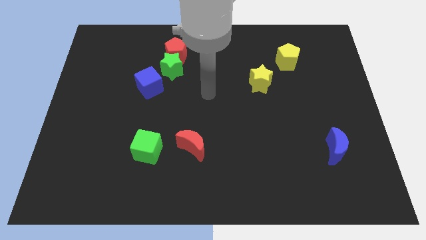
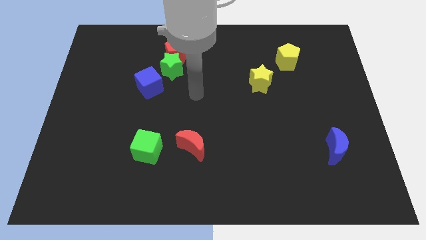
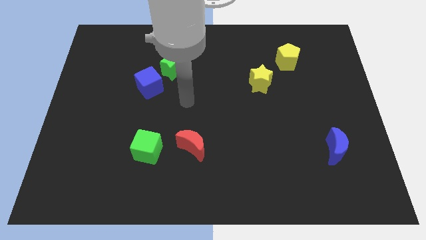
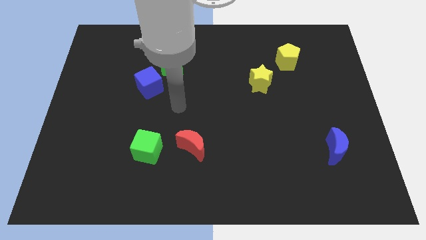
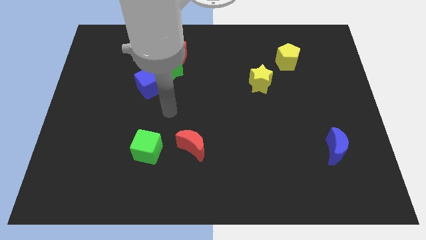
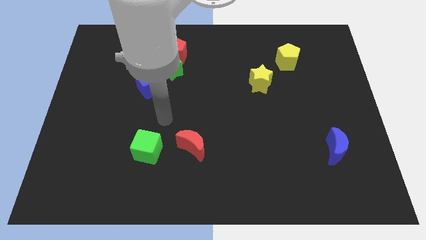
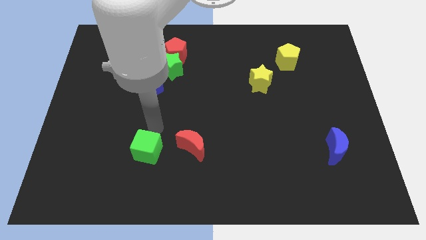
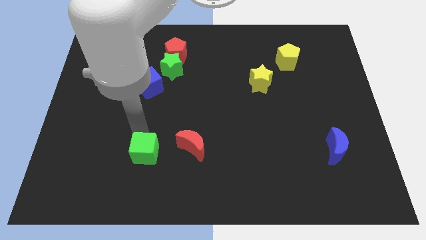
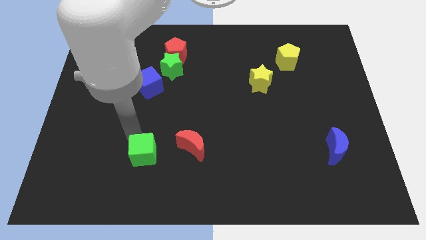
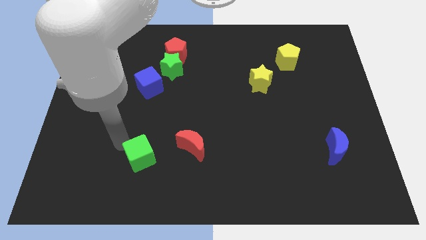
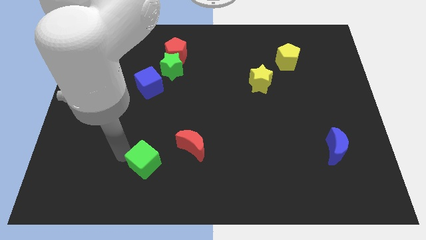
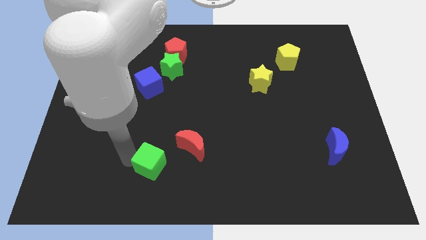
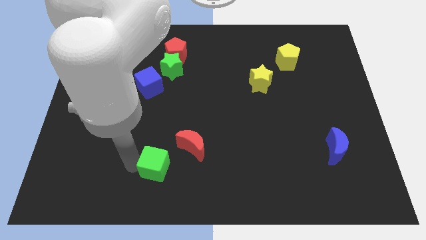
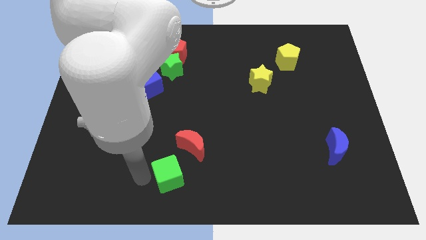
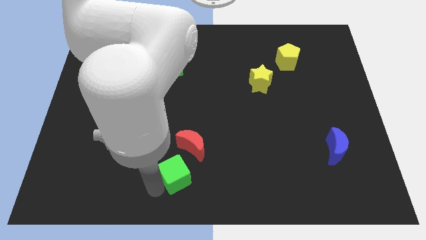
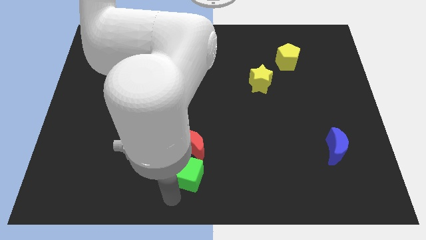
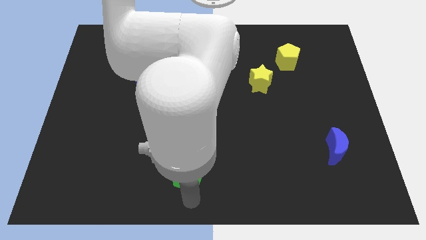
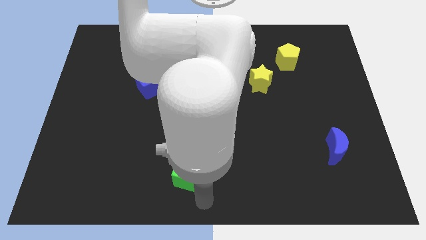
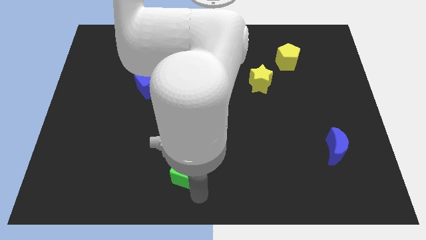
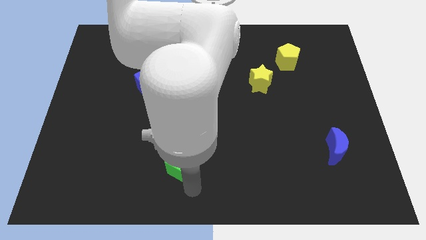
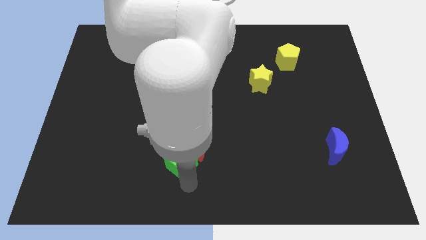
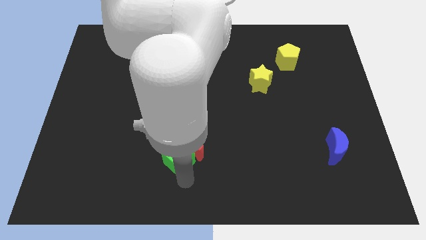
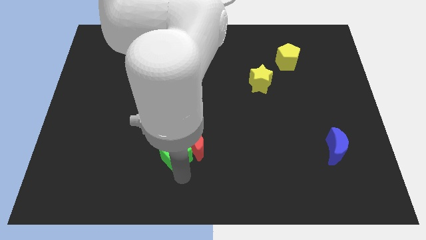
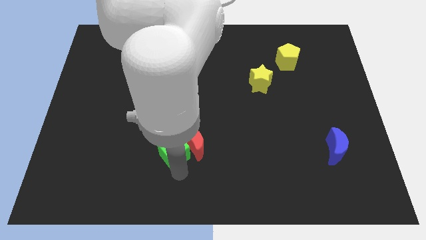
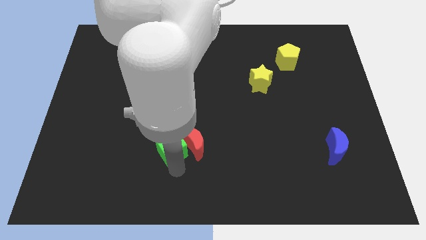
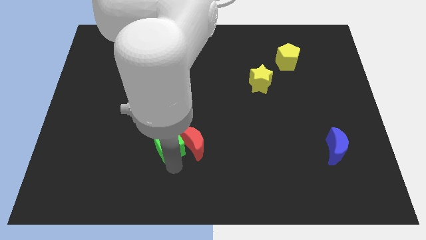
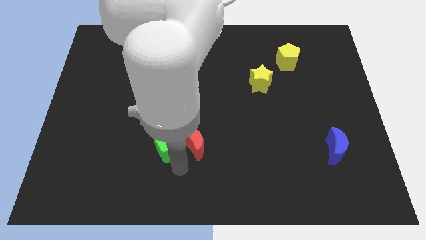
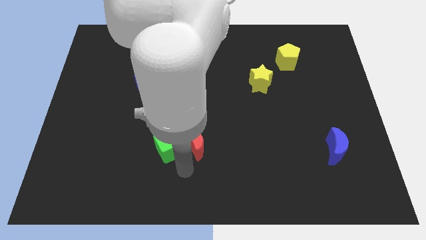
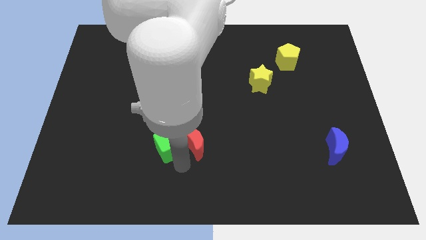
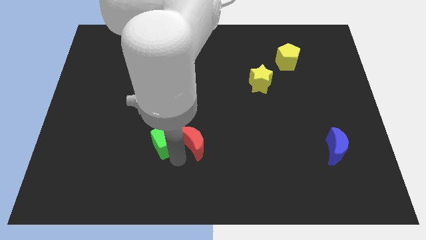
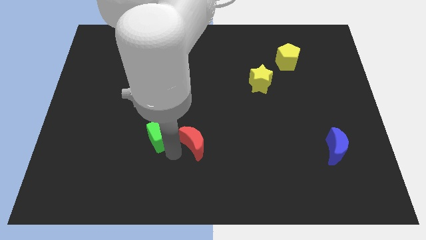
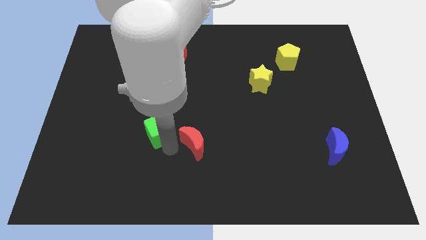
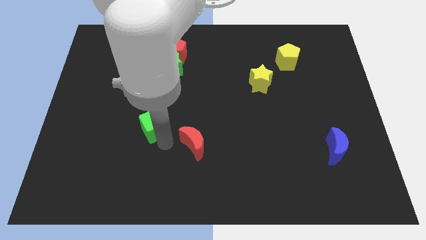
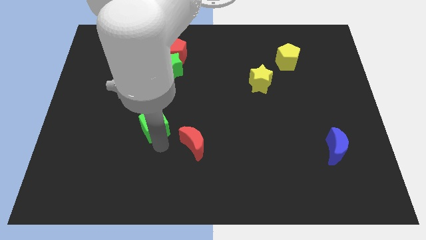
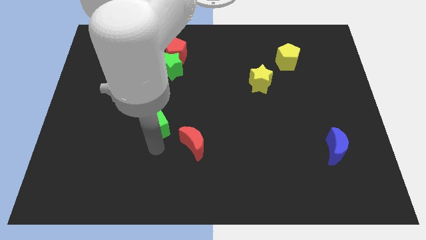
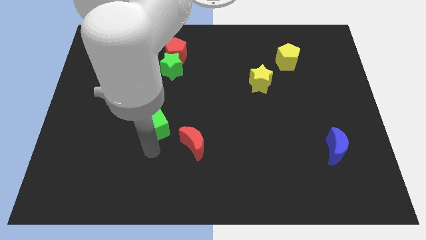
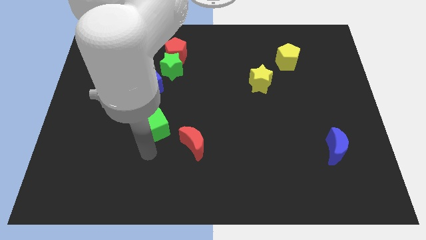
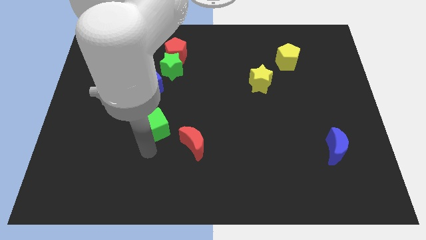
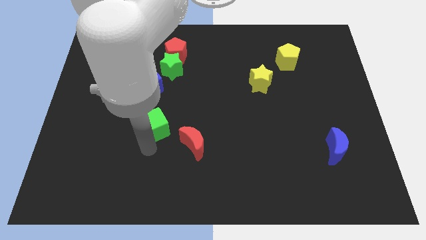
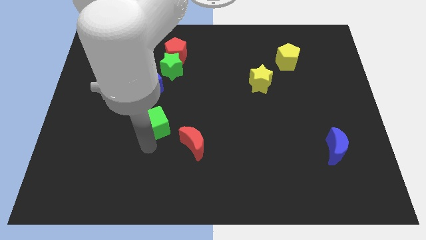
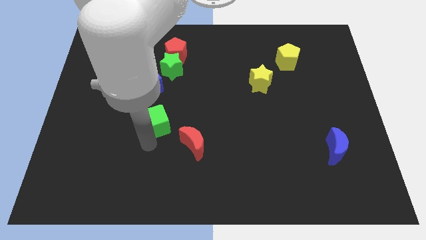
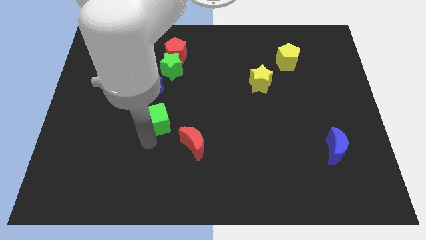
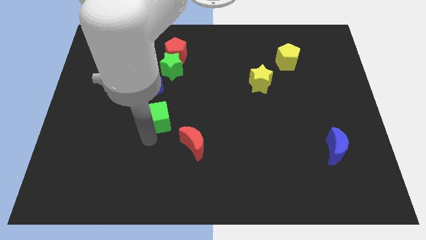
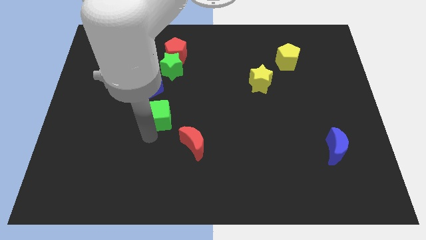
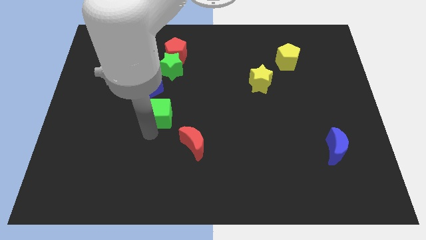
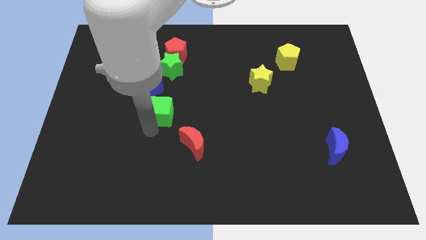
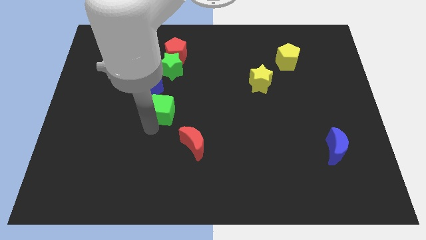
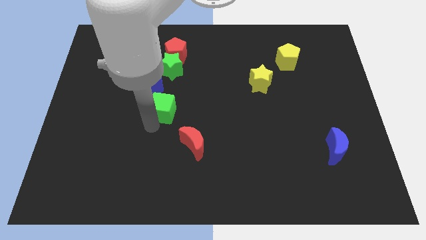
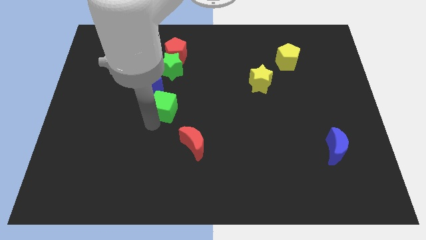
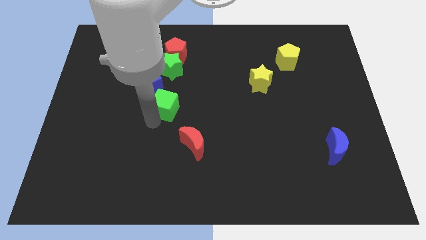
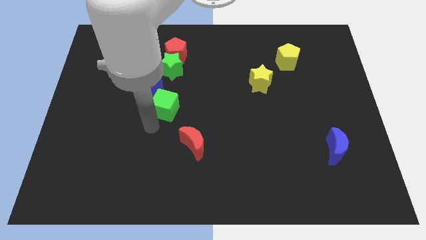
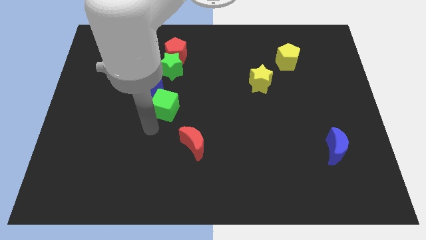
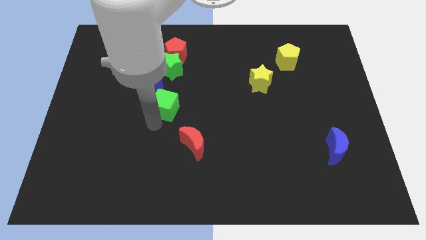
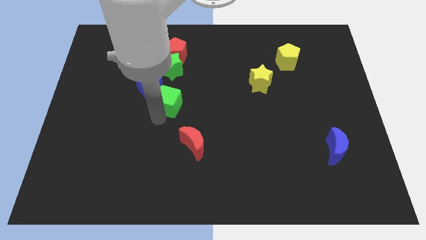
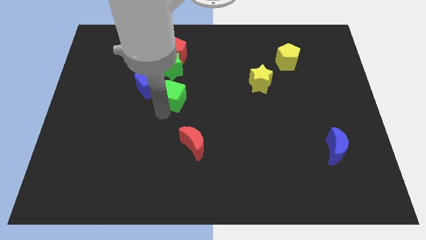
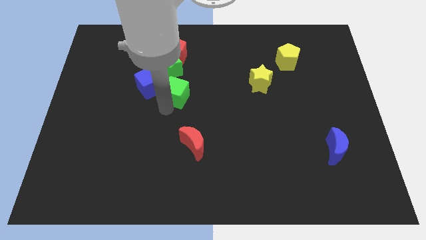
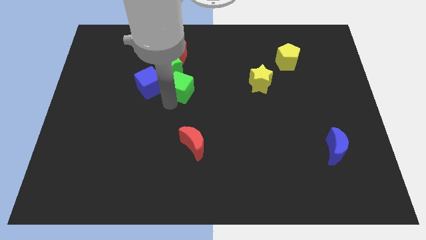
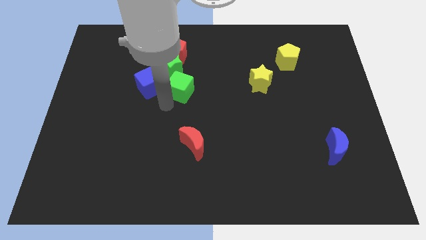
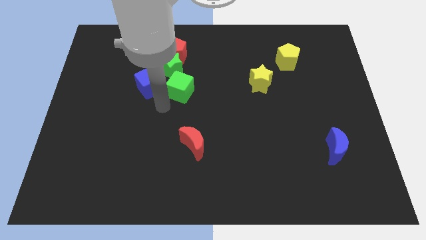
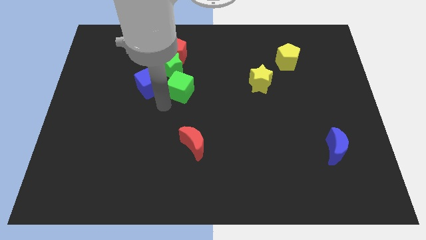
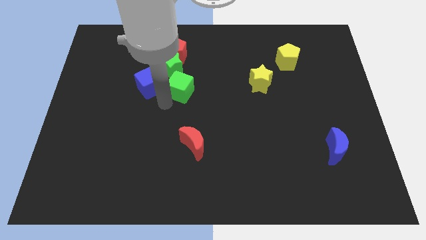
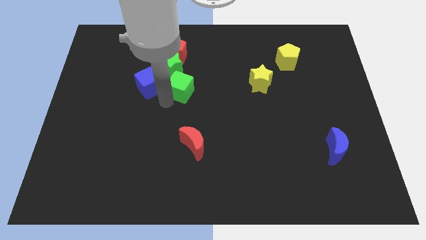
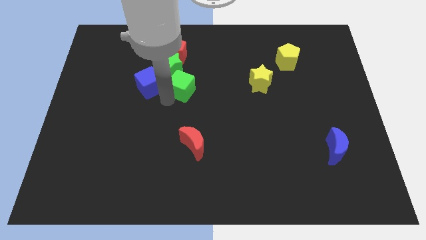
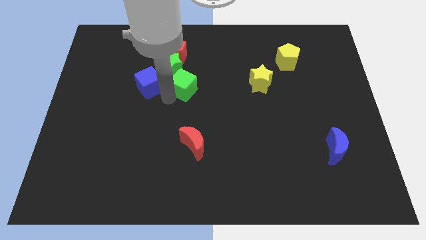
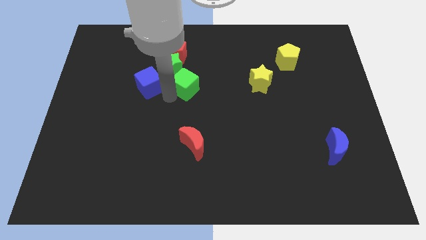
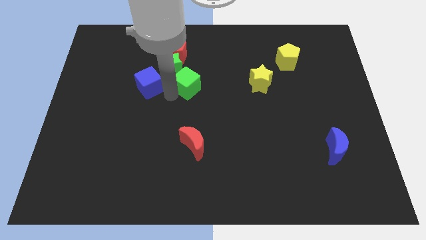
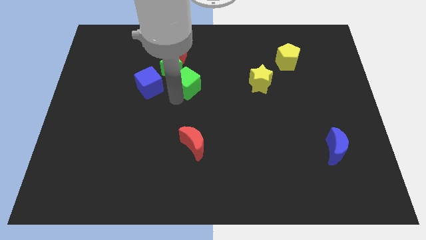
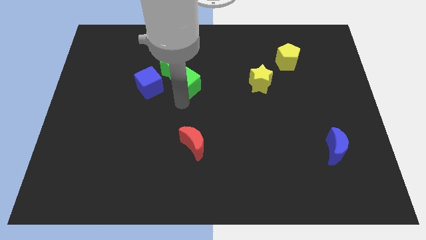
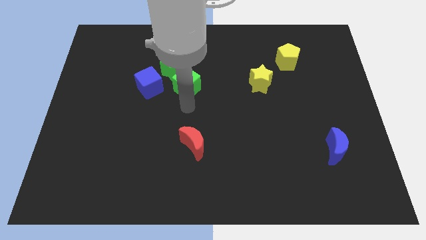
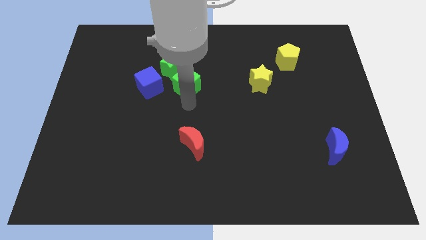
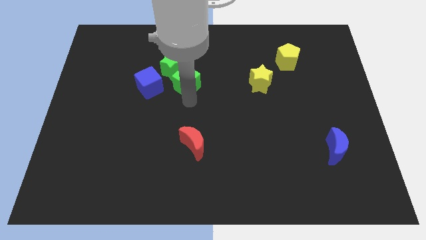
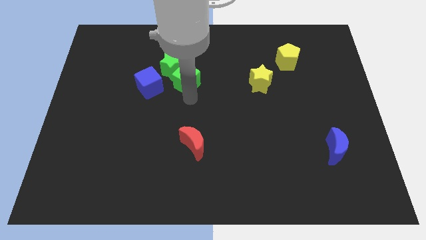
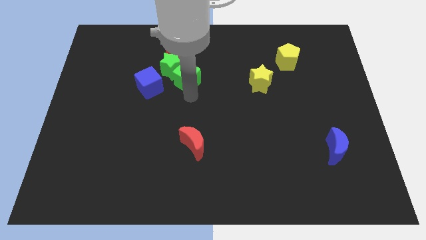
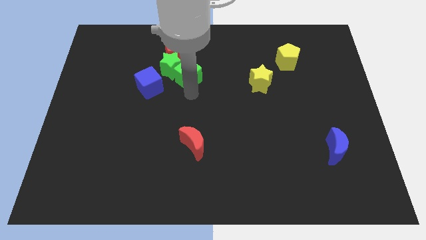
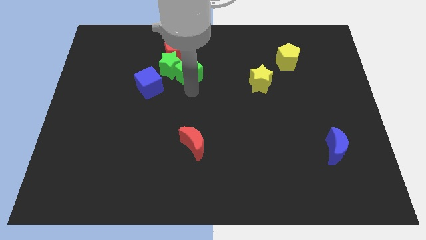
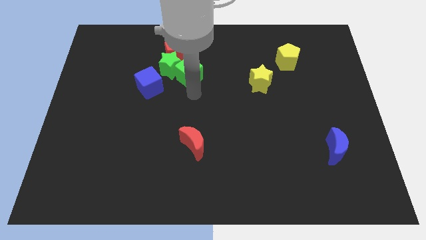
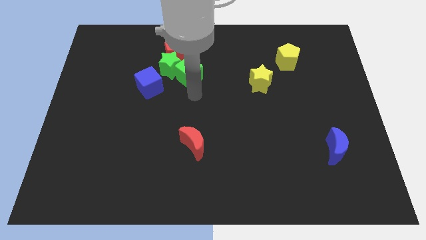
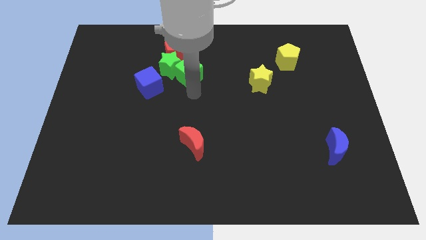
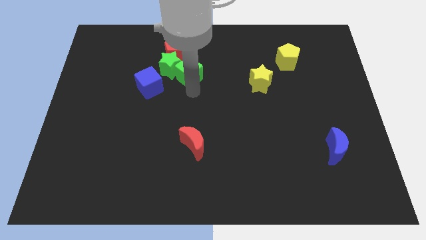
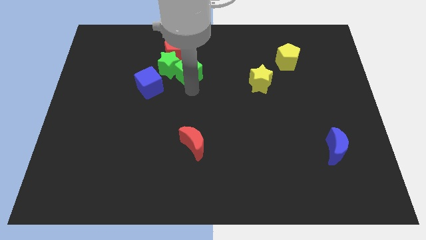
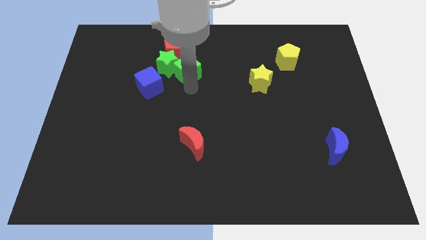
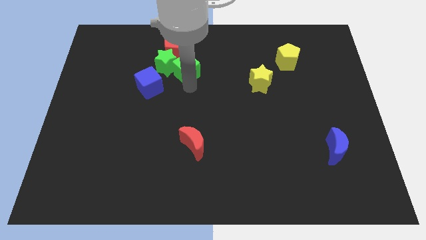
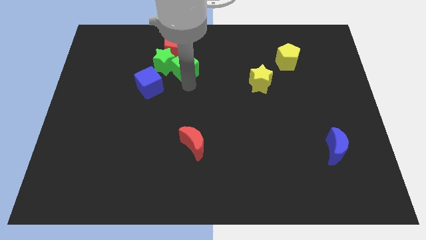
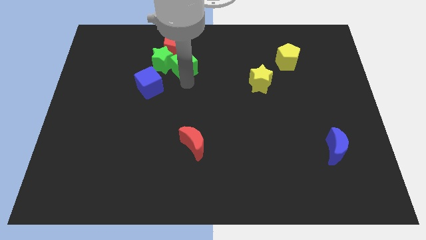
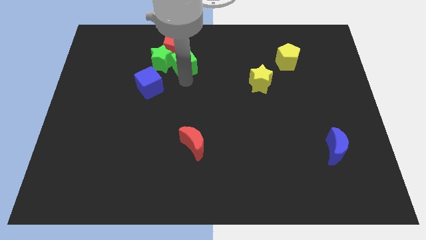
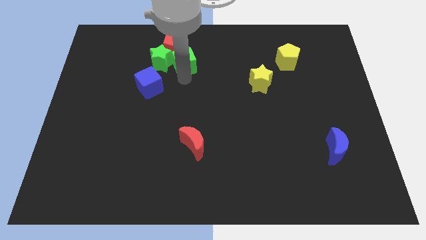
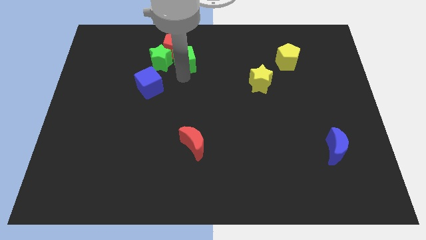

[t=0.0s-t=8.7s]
move the green cube close to the red pentagon
